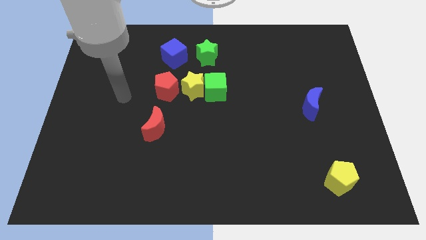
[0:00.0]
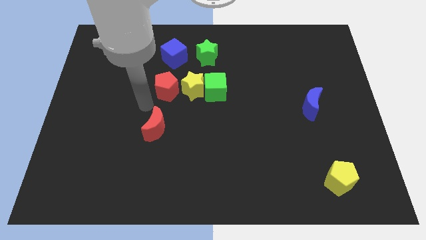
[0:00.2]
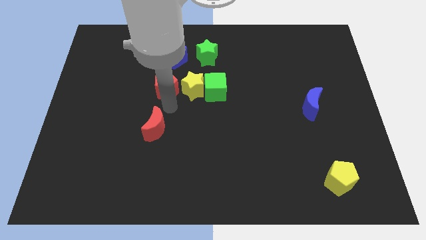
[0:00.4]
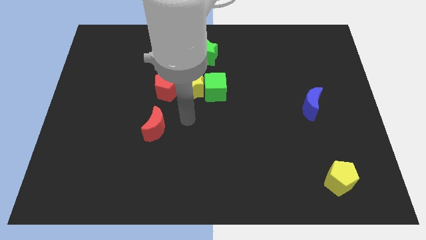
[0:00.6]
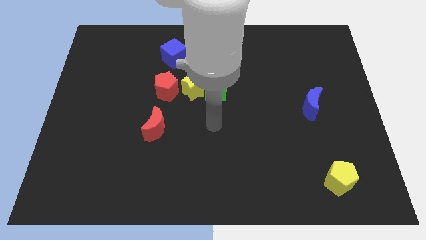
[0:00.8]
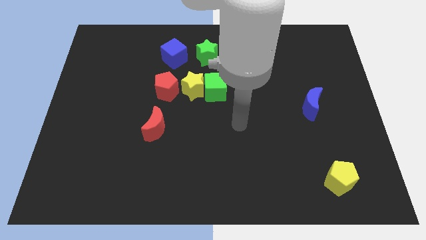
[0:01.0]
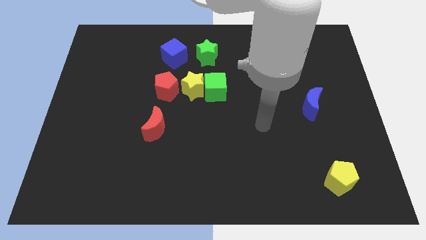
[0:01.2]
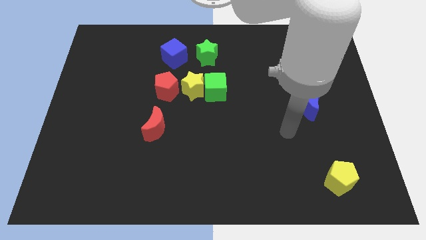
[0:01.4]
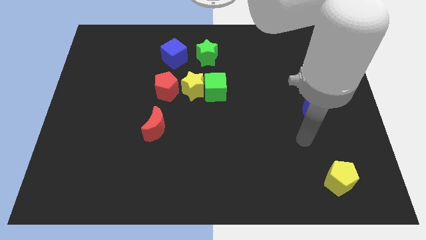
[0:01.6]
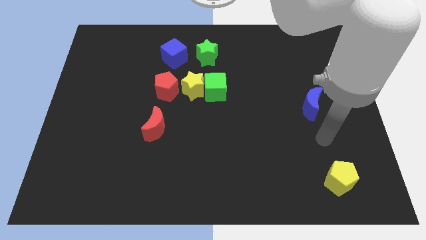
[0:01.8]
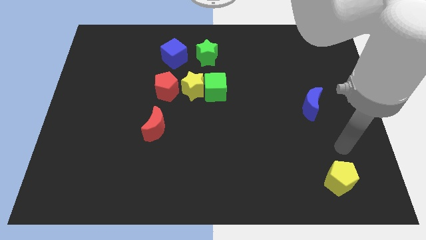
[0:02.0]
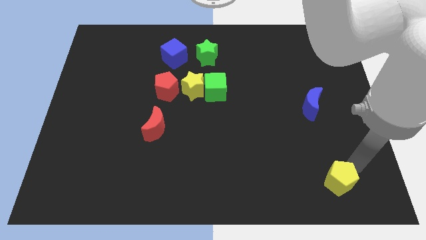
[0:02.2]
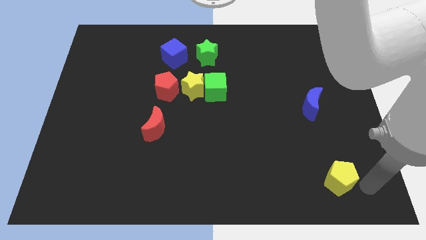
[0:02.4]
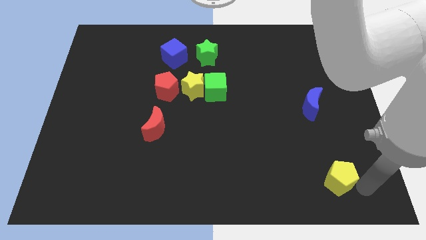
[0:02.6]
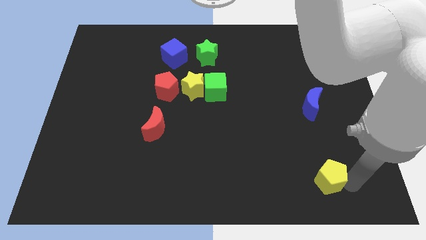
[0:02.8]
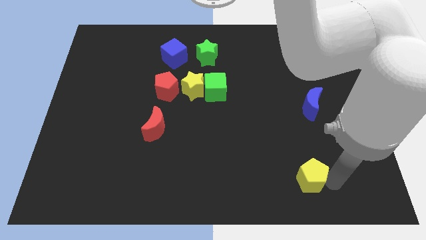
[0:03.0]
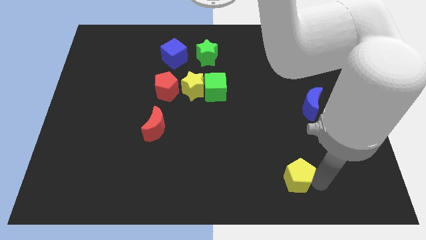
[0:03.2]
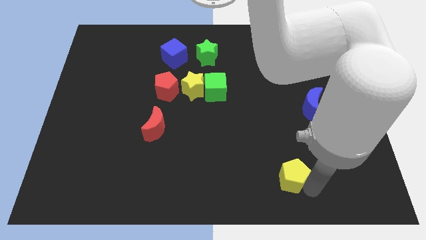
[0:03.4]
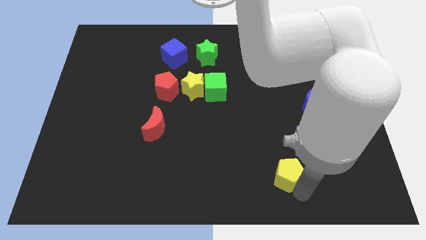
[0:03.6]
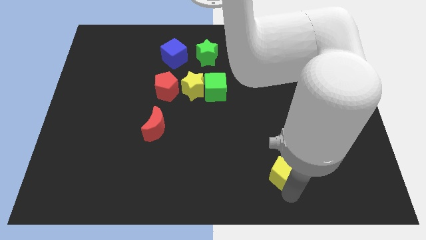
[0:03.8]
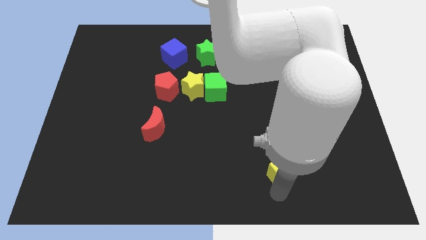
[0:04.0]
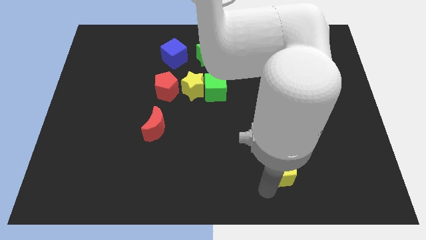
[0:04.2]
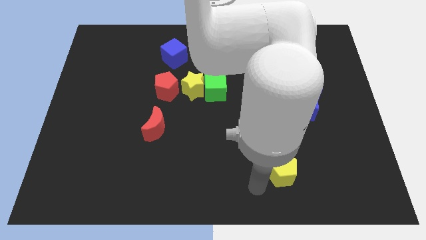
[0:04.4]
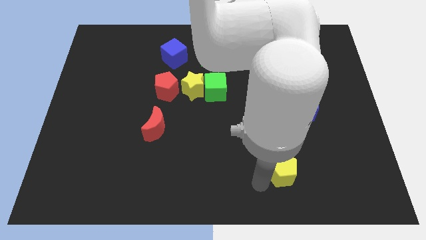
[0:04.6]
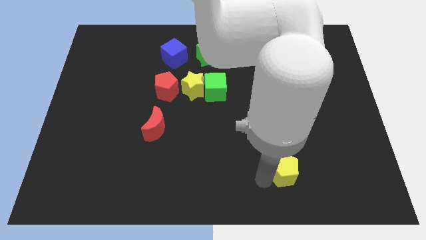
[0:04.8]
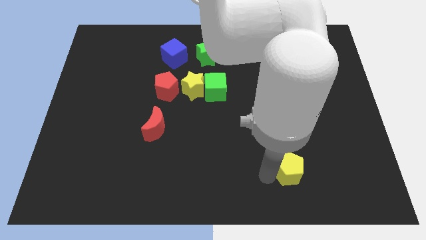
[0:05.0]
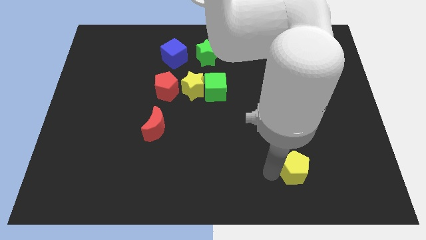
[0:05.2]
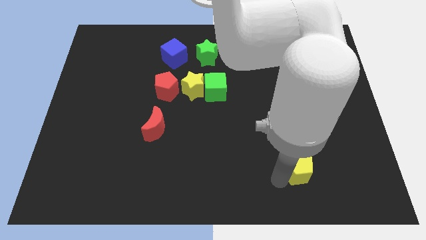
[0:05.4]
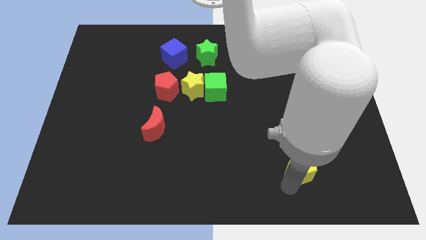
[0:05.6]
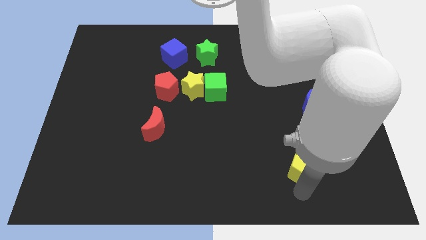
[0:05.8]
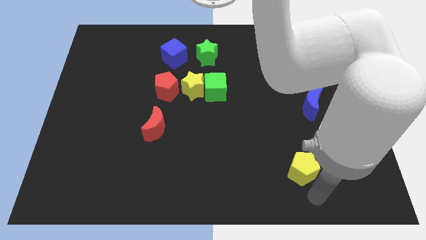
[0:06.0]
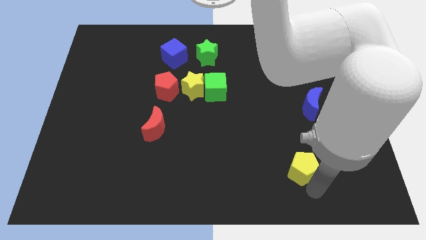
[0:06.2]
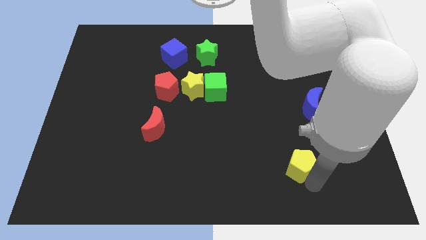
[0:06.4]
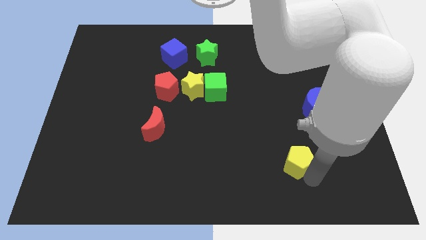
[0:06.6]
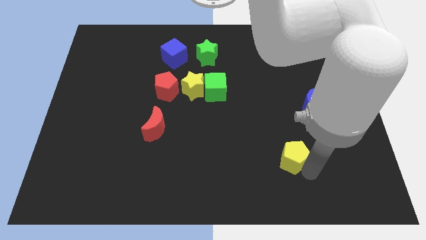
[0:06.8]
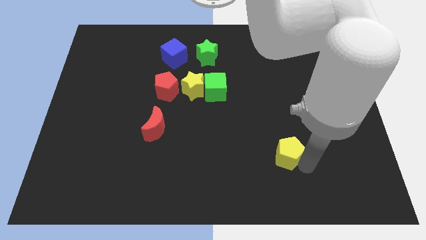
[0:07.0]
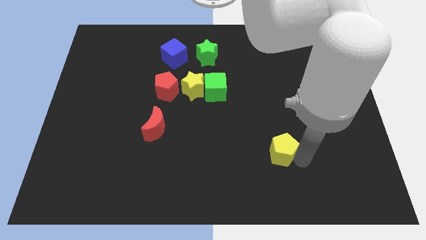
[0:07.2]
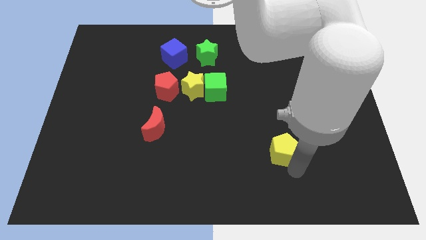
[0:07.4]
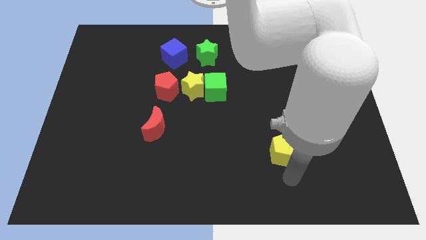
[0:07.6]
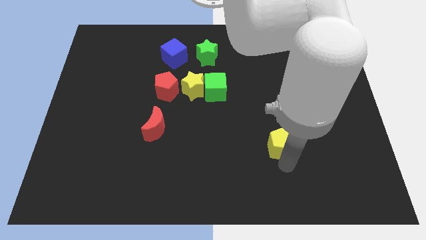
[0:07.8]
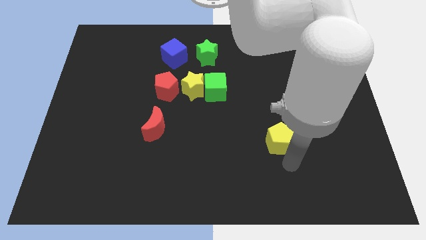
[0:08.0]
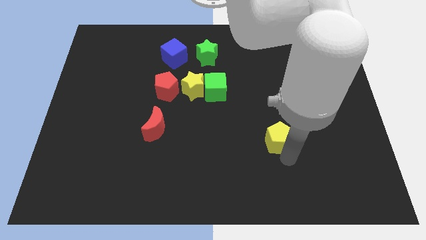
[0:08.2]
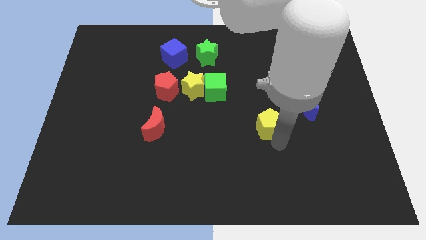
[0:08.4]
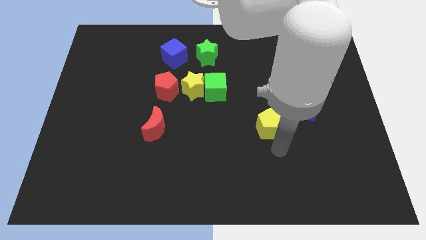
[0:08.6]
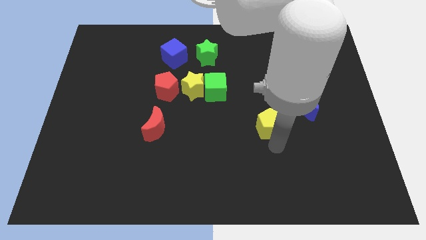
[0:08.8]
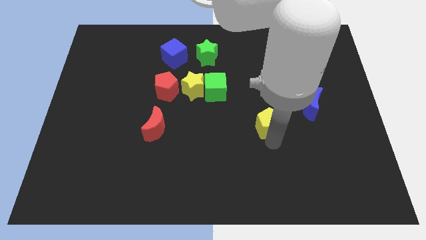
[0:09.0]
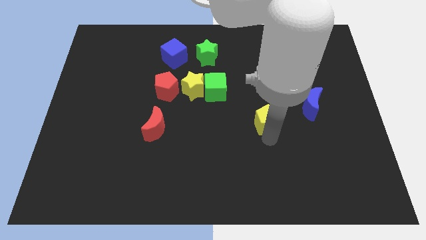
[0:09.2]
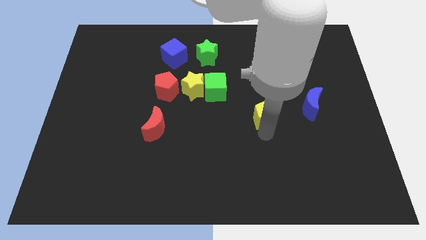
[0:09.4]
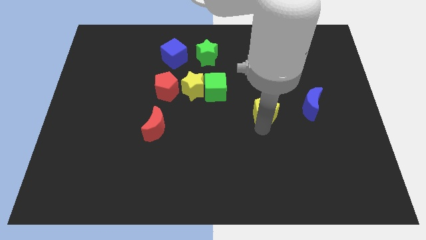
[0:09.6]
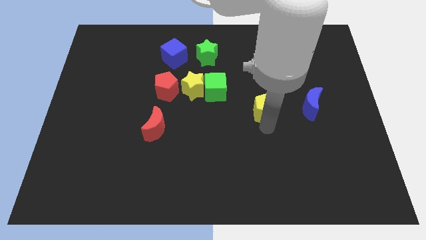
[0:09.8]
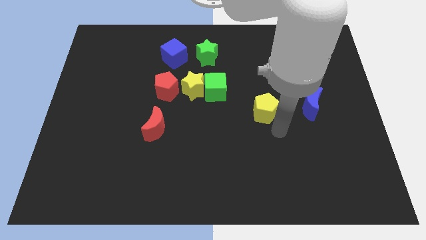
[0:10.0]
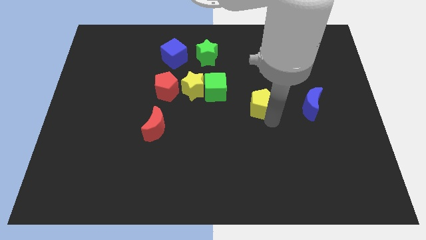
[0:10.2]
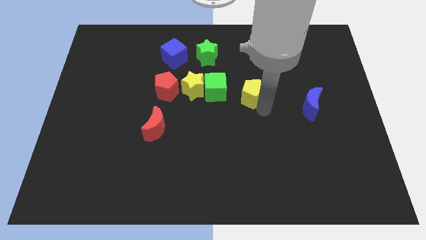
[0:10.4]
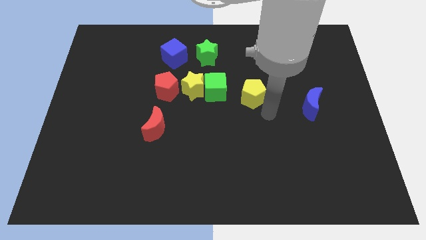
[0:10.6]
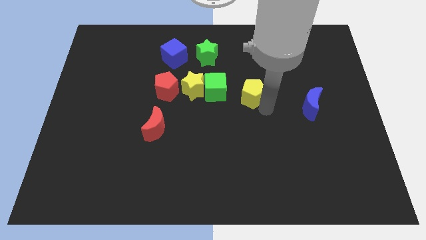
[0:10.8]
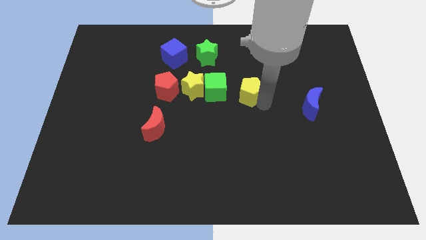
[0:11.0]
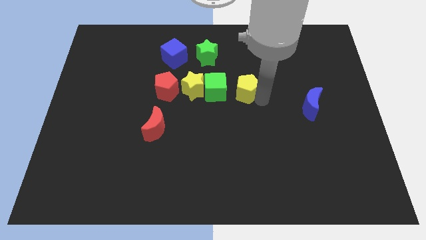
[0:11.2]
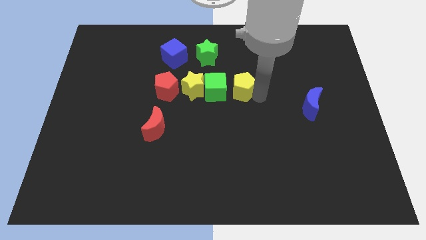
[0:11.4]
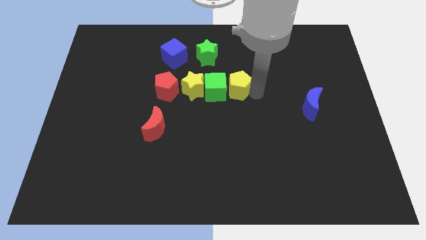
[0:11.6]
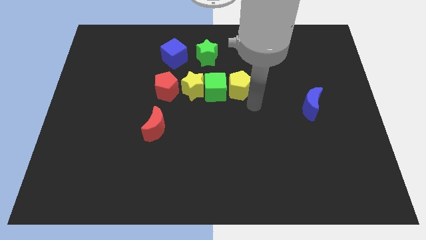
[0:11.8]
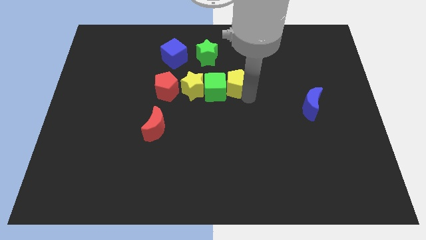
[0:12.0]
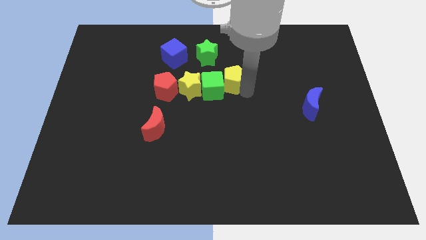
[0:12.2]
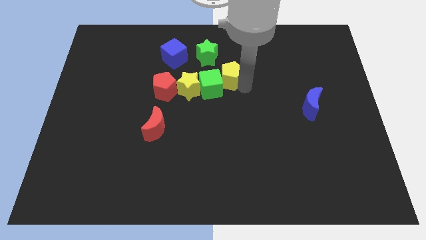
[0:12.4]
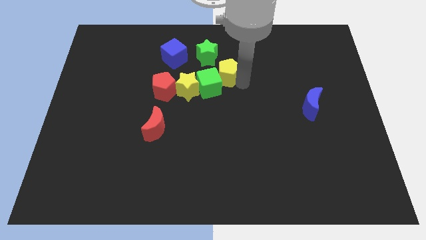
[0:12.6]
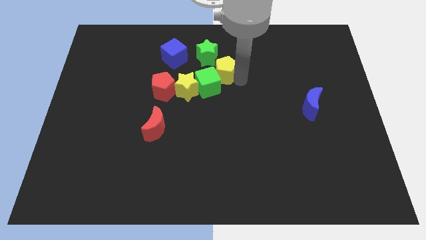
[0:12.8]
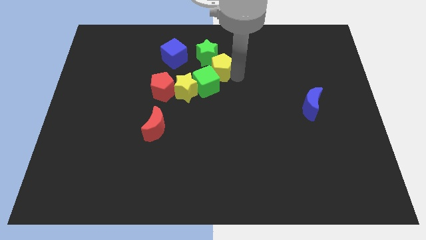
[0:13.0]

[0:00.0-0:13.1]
slide the yellow pentagon close to the green star
